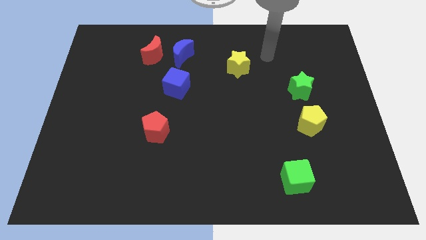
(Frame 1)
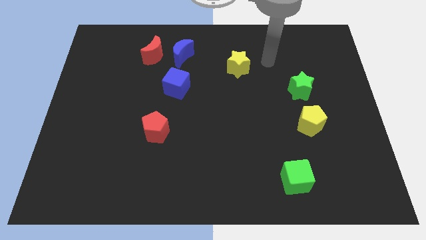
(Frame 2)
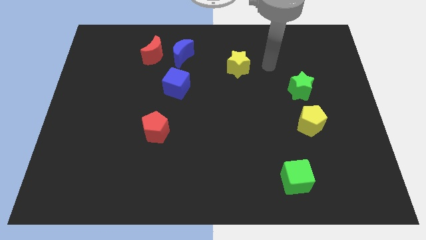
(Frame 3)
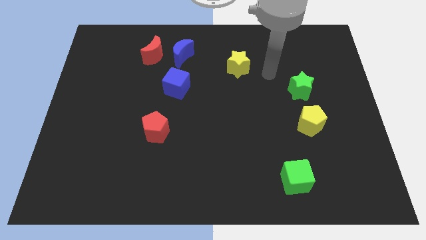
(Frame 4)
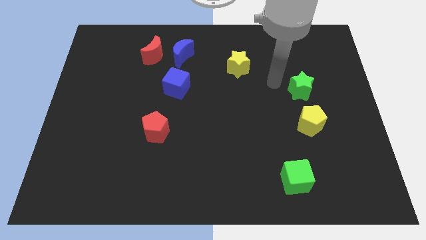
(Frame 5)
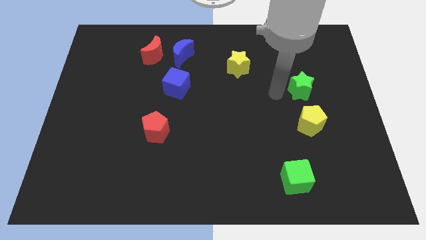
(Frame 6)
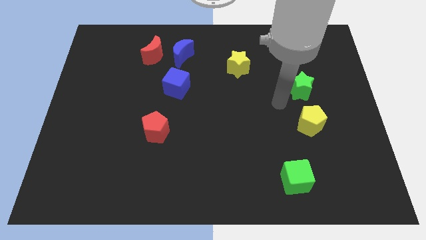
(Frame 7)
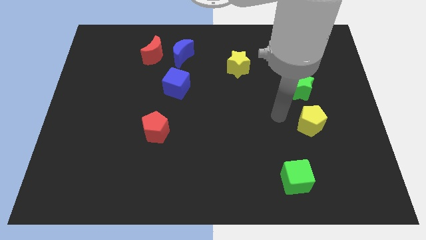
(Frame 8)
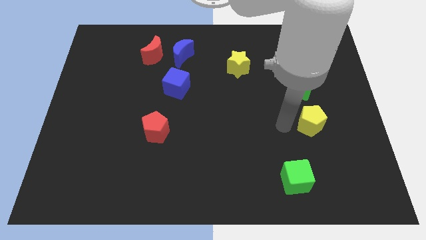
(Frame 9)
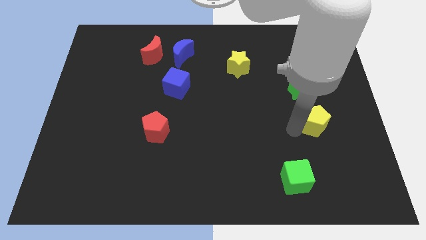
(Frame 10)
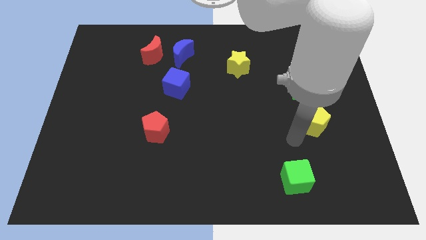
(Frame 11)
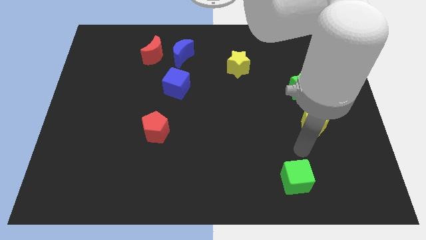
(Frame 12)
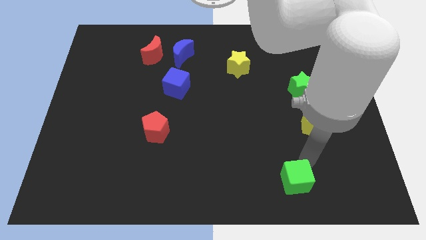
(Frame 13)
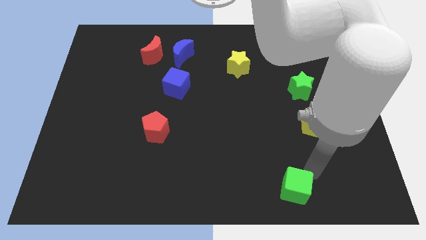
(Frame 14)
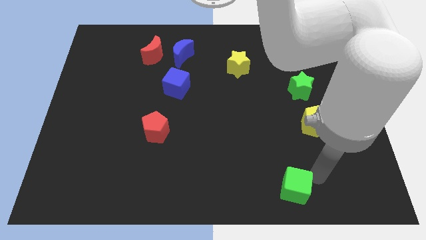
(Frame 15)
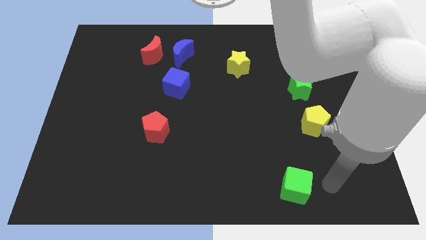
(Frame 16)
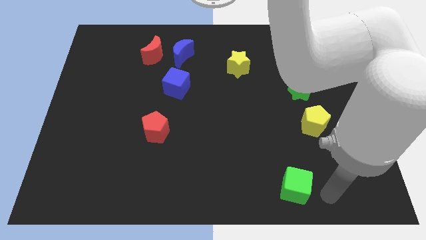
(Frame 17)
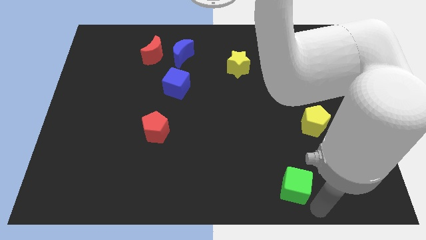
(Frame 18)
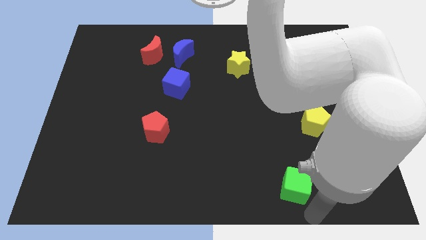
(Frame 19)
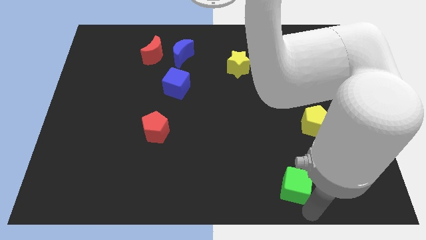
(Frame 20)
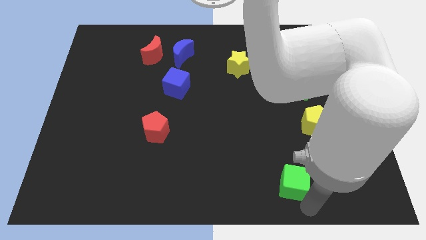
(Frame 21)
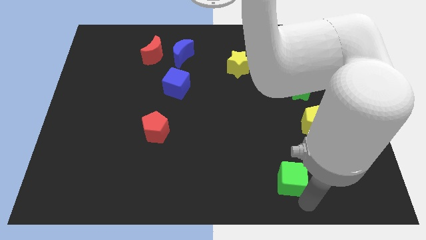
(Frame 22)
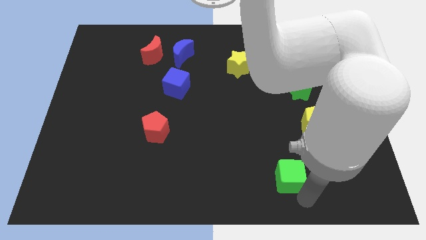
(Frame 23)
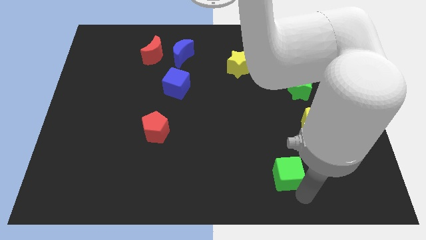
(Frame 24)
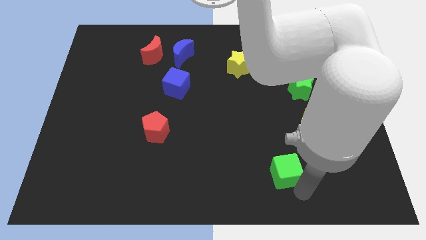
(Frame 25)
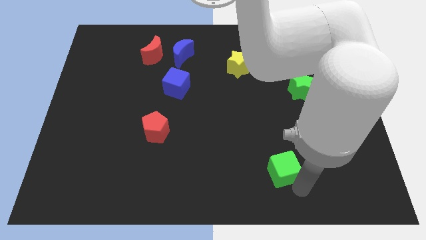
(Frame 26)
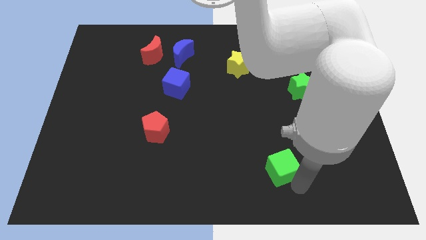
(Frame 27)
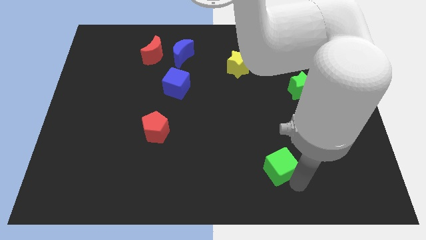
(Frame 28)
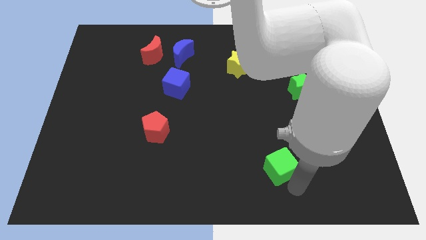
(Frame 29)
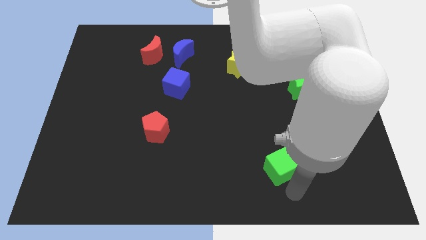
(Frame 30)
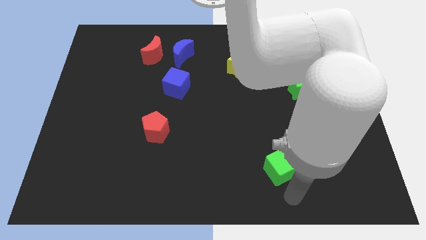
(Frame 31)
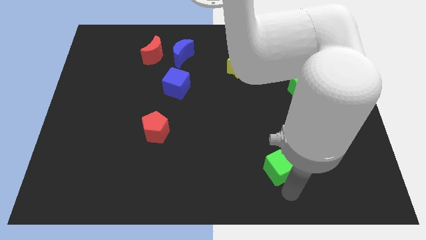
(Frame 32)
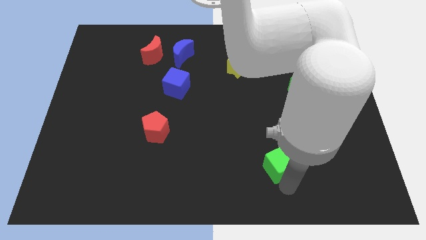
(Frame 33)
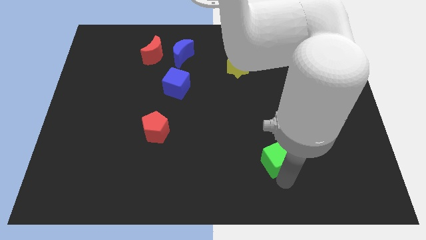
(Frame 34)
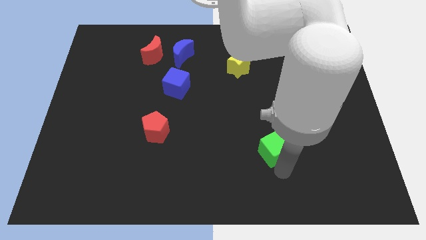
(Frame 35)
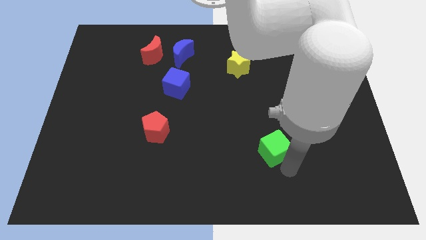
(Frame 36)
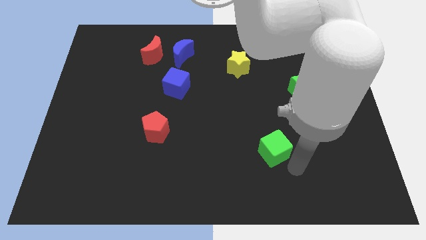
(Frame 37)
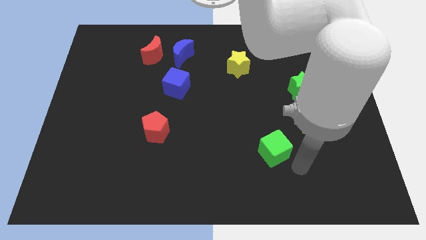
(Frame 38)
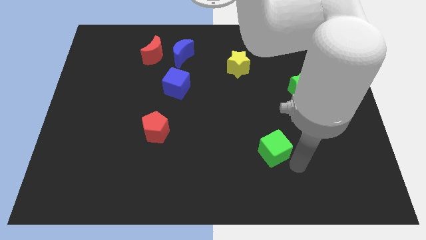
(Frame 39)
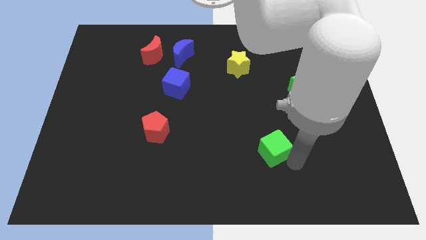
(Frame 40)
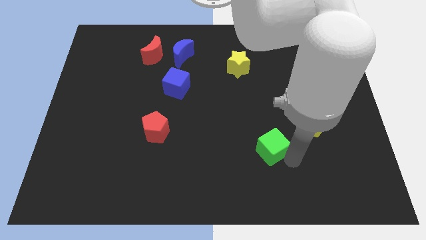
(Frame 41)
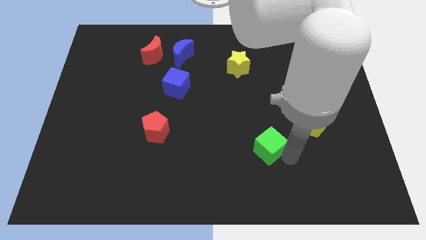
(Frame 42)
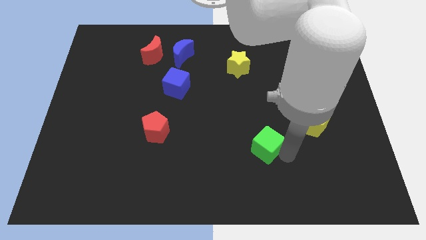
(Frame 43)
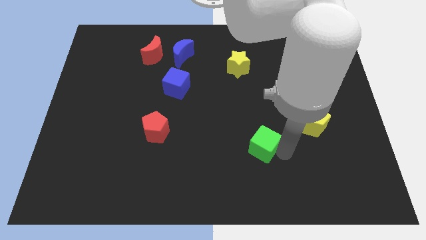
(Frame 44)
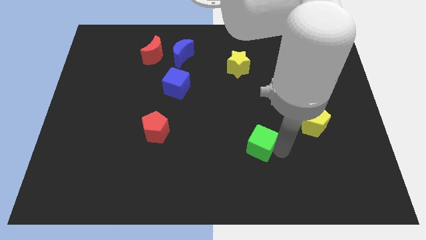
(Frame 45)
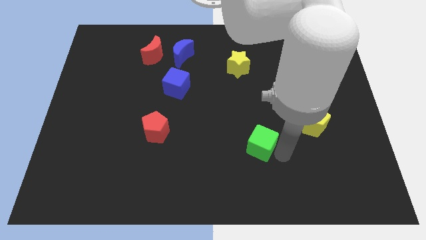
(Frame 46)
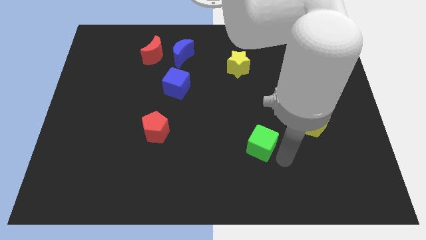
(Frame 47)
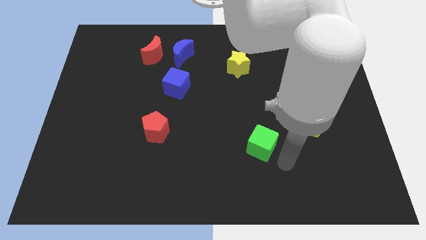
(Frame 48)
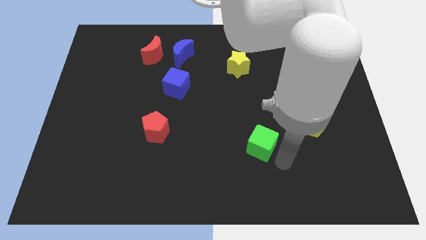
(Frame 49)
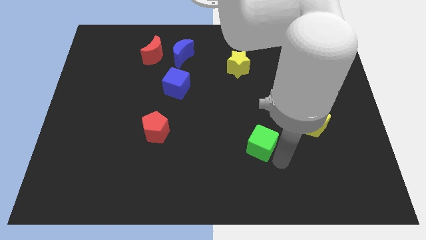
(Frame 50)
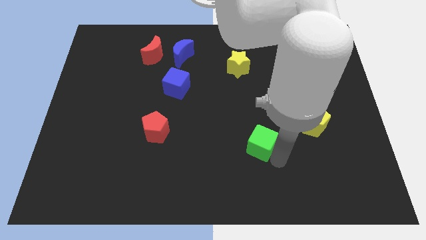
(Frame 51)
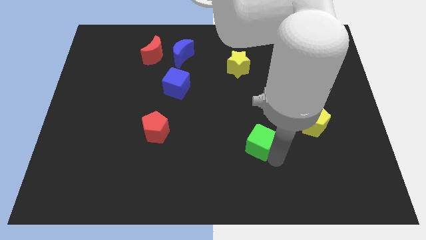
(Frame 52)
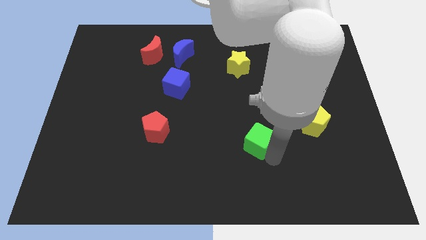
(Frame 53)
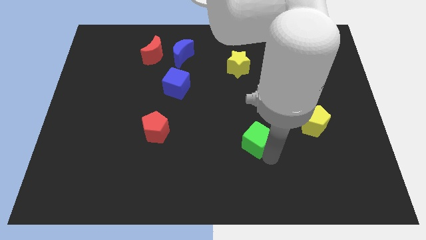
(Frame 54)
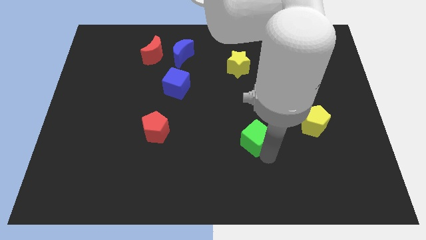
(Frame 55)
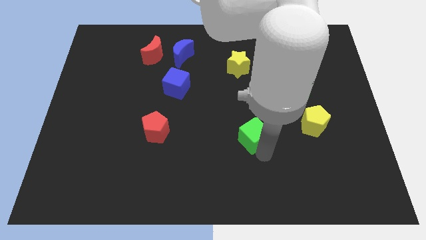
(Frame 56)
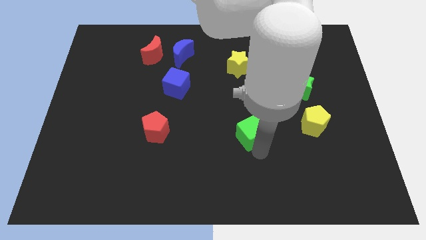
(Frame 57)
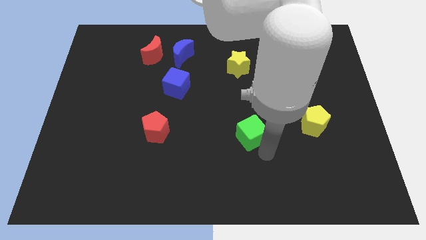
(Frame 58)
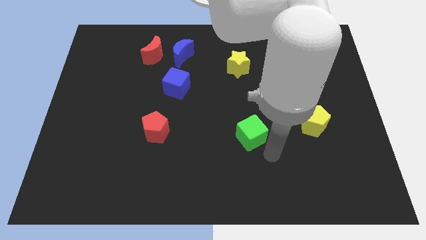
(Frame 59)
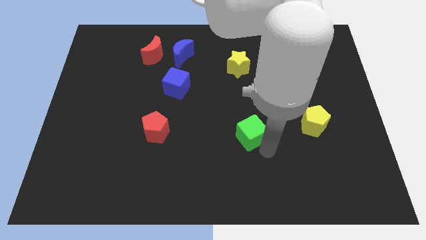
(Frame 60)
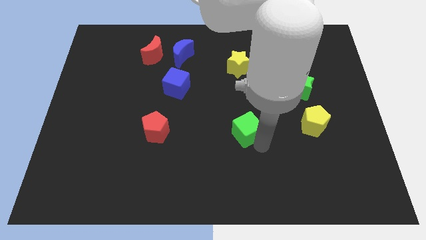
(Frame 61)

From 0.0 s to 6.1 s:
put the green cube to the center of the board
